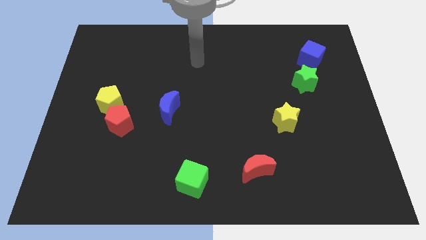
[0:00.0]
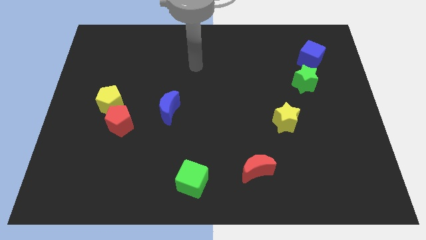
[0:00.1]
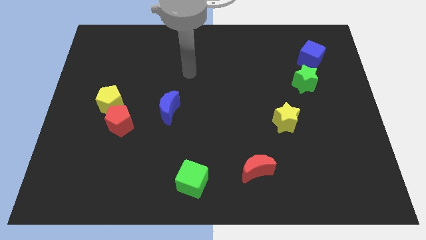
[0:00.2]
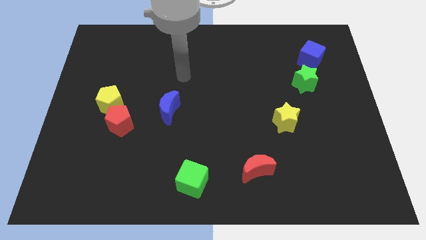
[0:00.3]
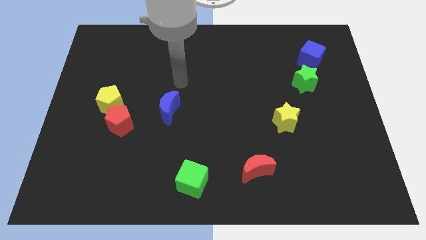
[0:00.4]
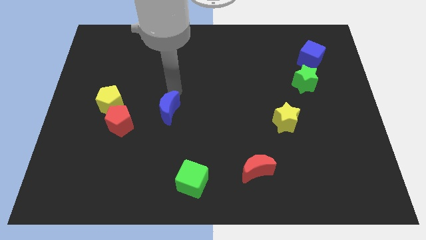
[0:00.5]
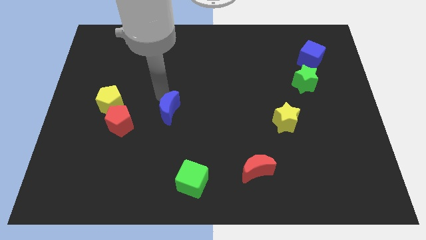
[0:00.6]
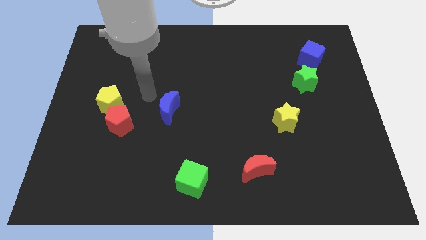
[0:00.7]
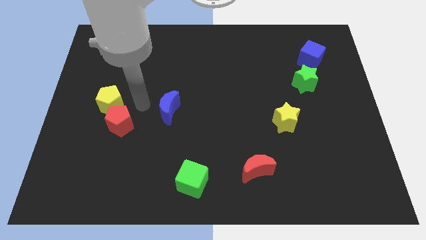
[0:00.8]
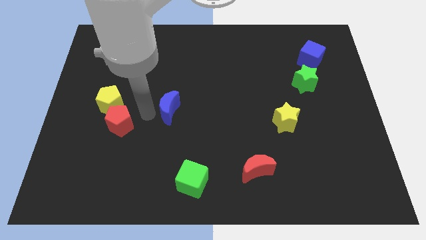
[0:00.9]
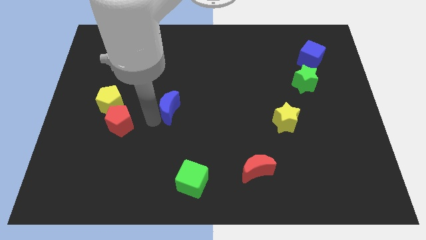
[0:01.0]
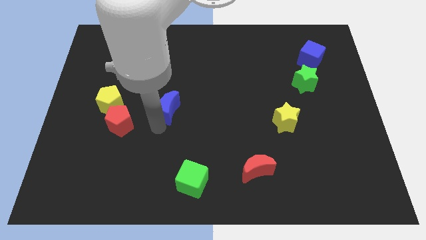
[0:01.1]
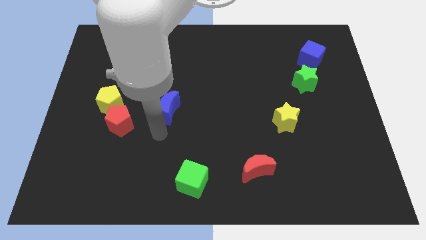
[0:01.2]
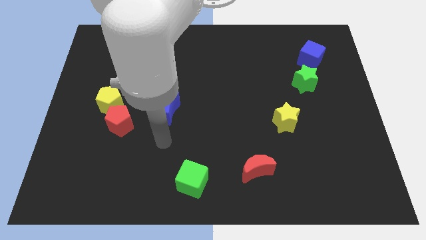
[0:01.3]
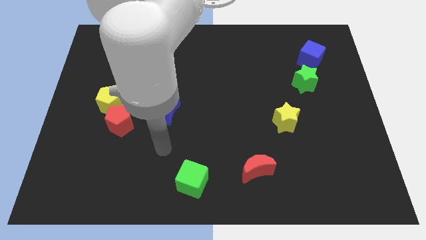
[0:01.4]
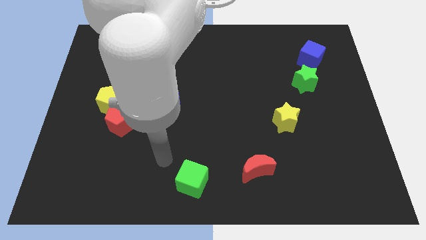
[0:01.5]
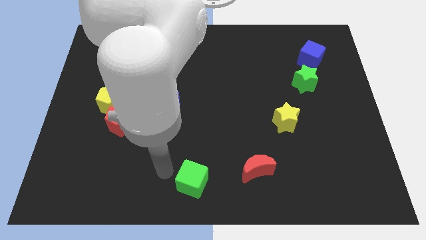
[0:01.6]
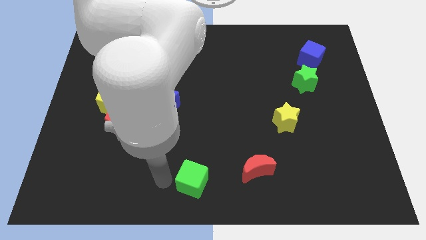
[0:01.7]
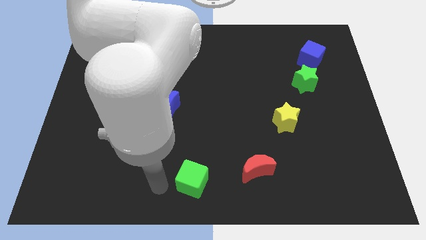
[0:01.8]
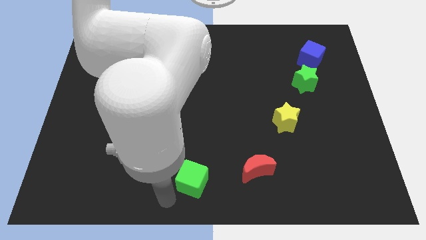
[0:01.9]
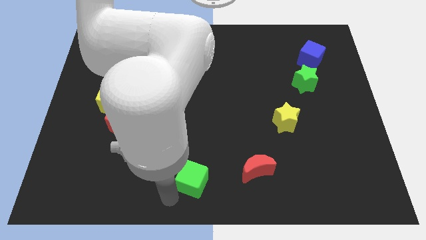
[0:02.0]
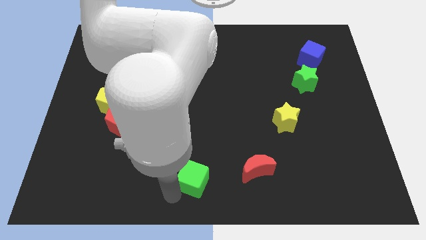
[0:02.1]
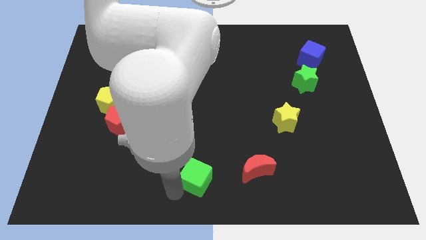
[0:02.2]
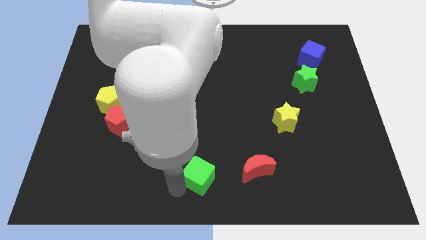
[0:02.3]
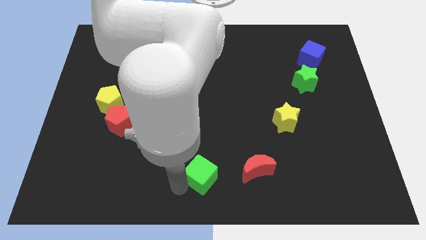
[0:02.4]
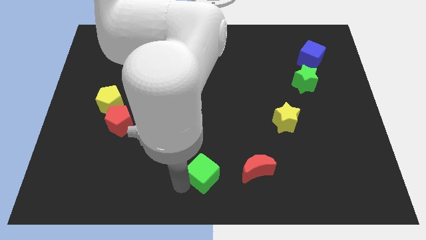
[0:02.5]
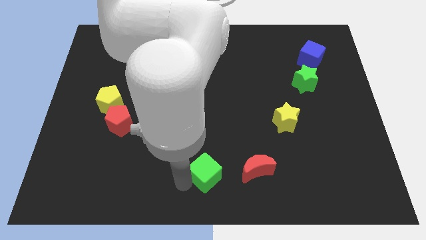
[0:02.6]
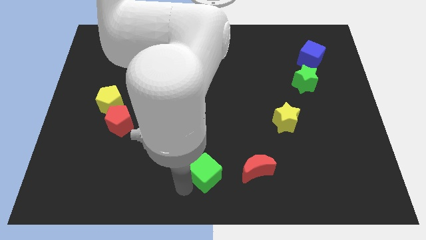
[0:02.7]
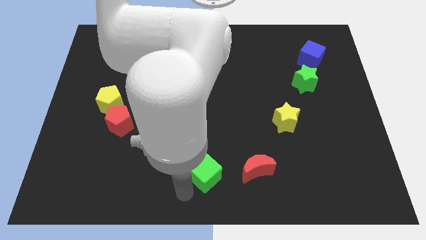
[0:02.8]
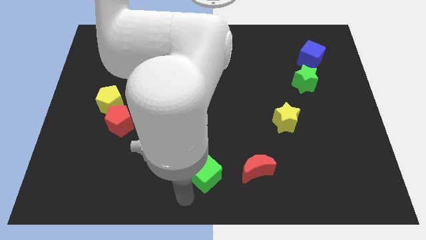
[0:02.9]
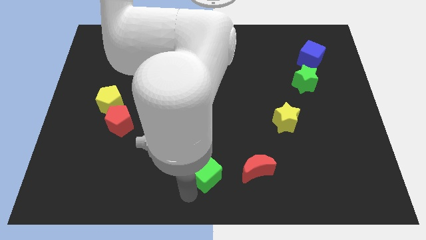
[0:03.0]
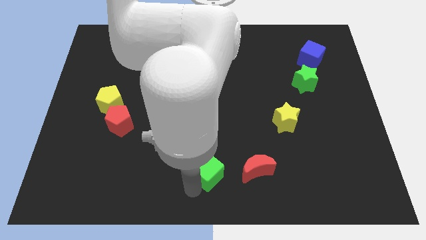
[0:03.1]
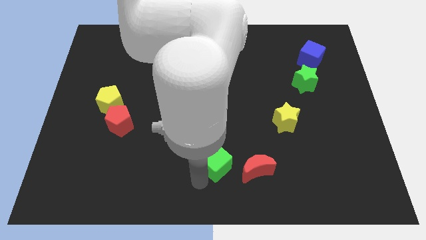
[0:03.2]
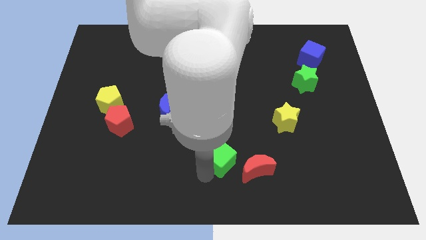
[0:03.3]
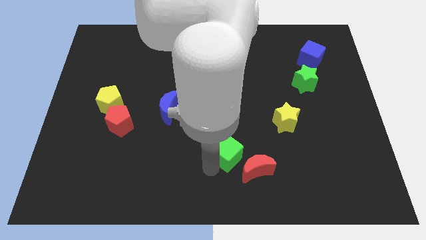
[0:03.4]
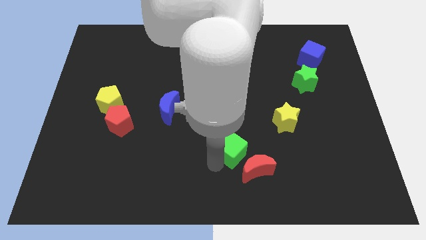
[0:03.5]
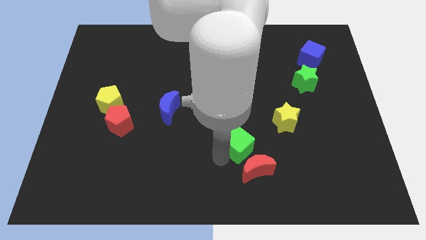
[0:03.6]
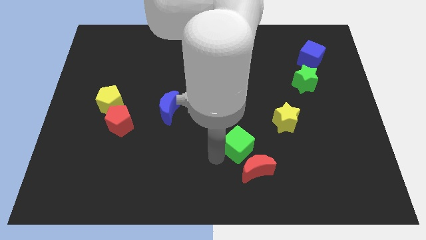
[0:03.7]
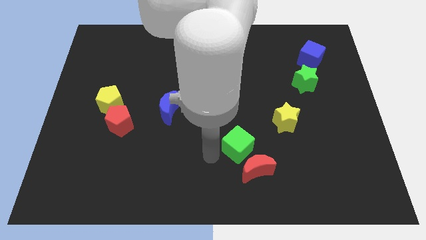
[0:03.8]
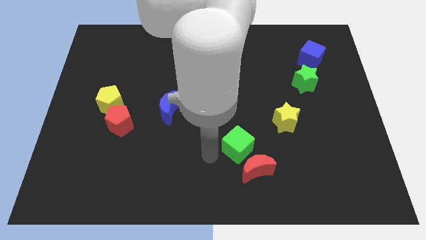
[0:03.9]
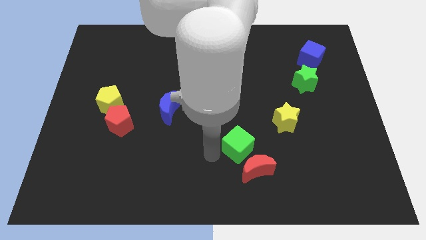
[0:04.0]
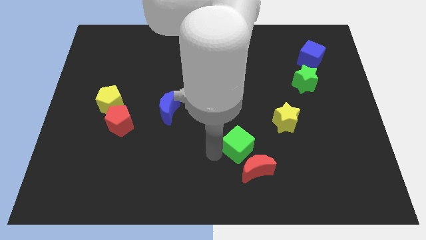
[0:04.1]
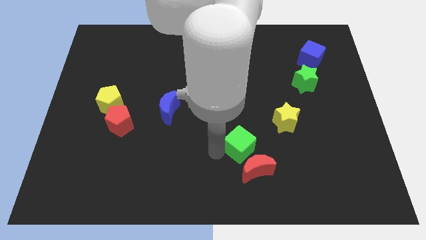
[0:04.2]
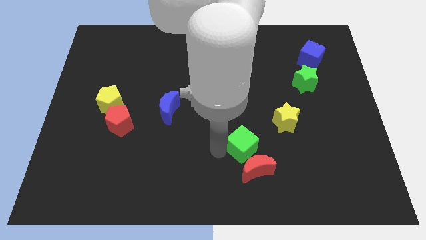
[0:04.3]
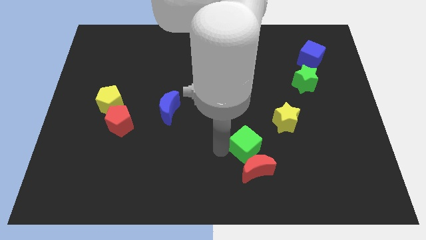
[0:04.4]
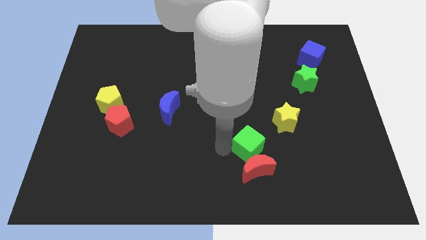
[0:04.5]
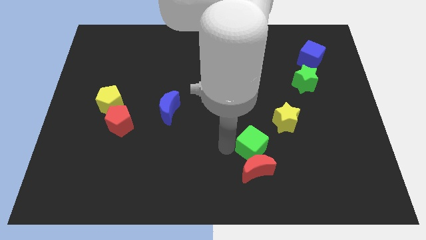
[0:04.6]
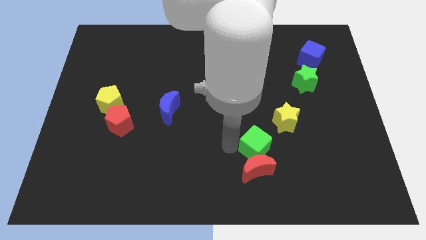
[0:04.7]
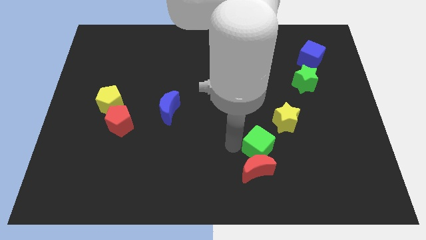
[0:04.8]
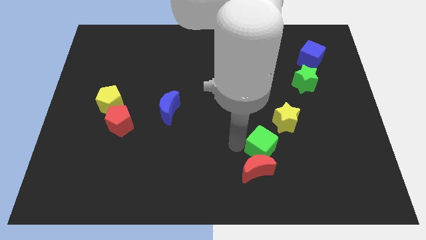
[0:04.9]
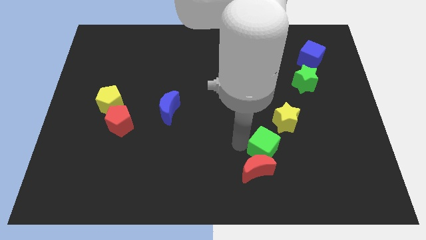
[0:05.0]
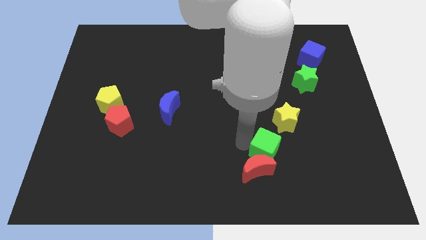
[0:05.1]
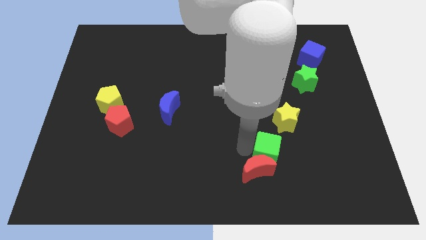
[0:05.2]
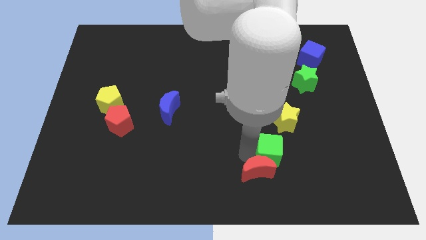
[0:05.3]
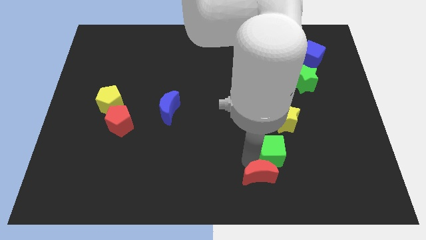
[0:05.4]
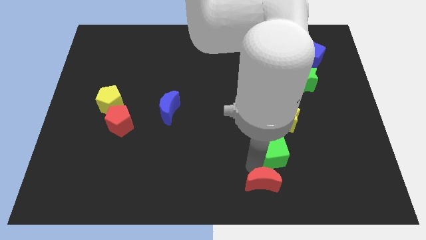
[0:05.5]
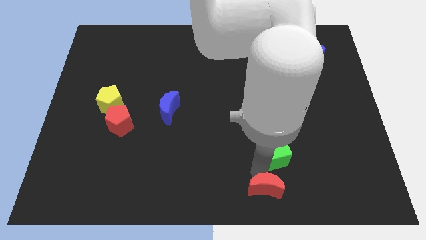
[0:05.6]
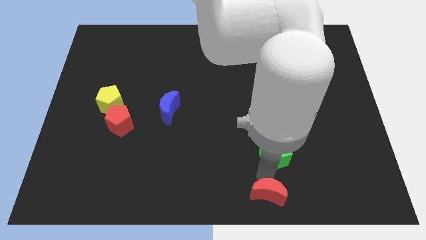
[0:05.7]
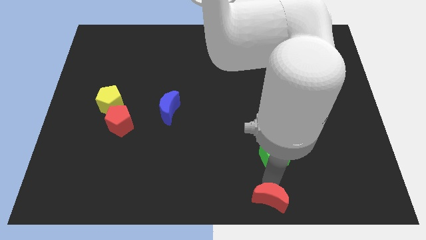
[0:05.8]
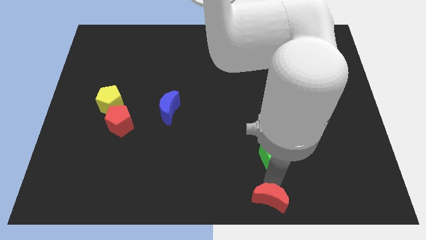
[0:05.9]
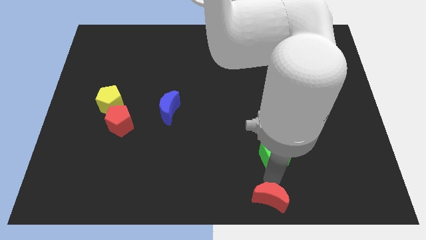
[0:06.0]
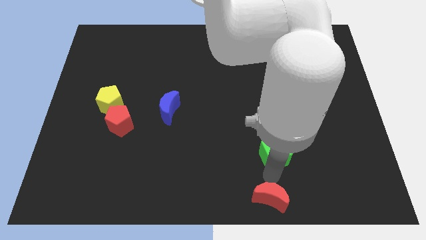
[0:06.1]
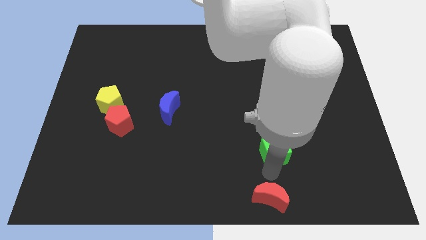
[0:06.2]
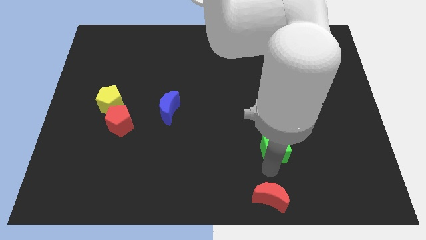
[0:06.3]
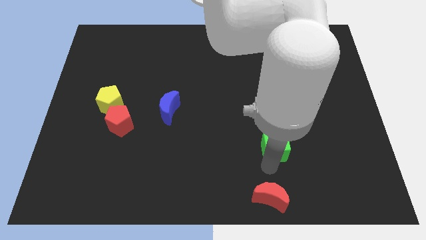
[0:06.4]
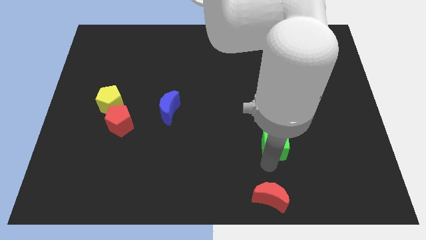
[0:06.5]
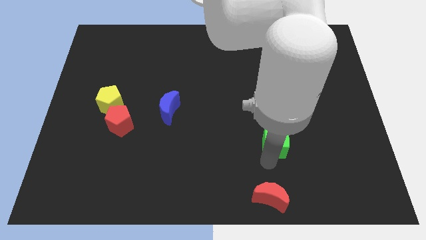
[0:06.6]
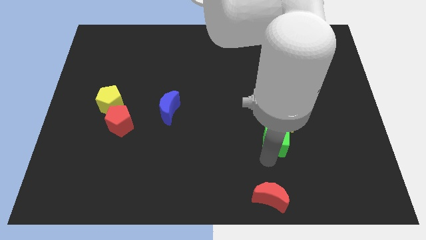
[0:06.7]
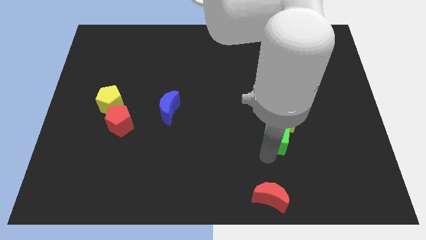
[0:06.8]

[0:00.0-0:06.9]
slide the green cube towards the yellow star
